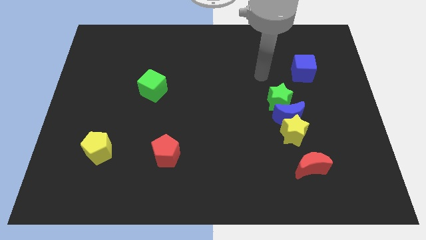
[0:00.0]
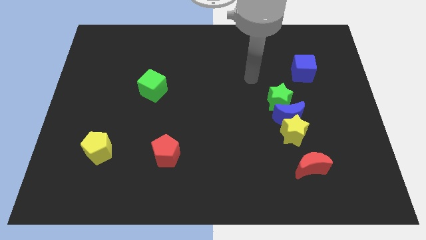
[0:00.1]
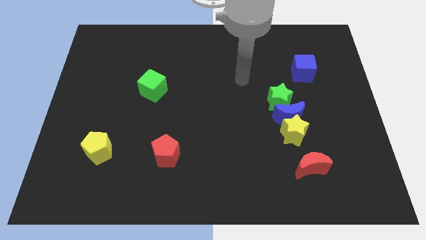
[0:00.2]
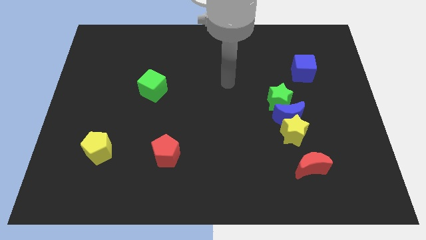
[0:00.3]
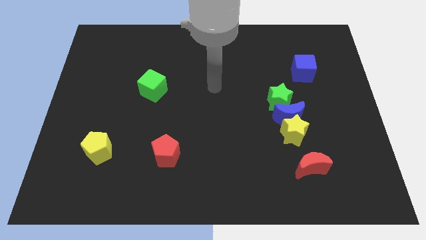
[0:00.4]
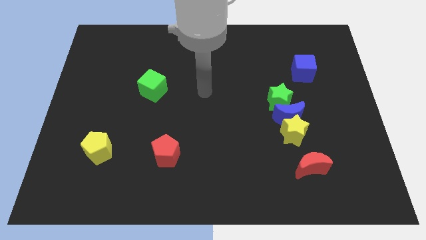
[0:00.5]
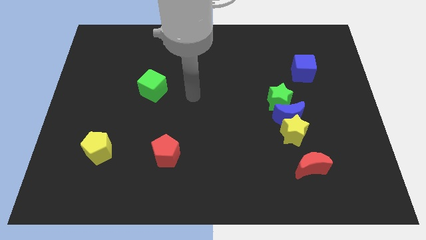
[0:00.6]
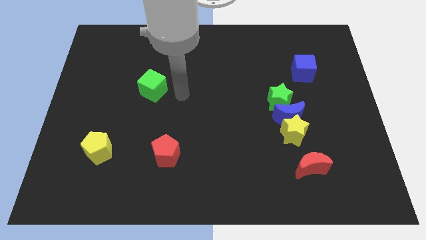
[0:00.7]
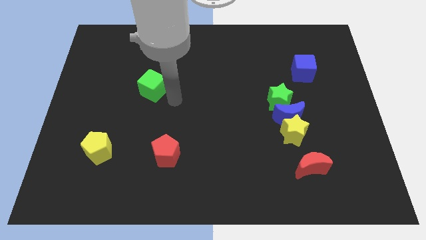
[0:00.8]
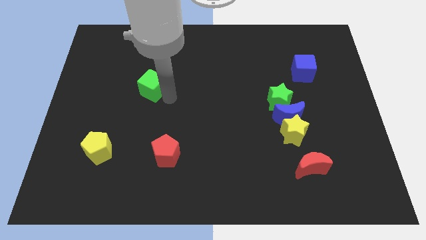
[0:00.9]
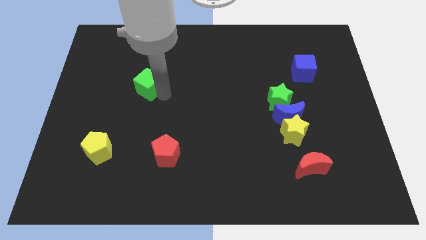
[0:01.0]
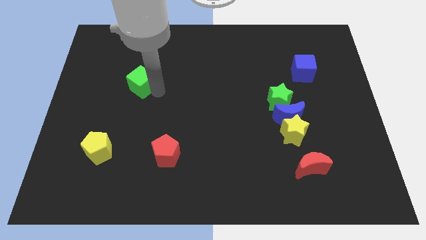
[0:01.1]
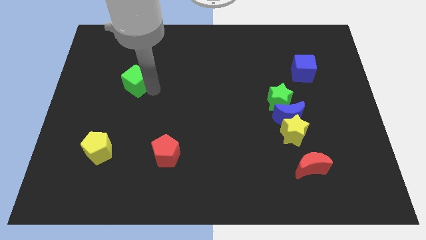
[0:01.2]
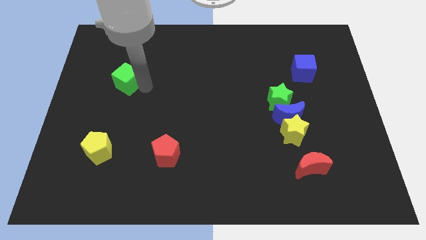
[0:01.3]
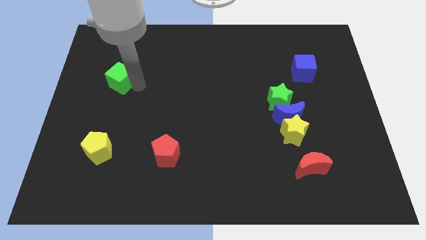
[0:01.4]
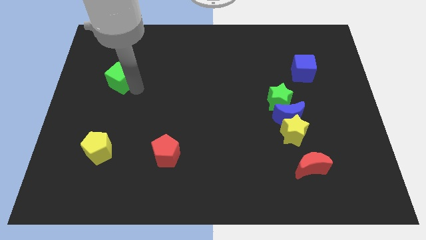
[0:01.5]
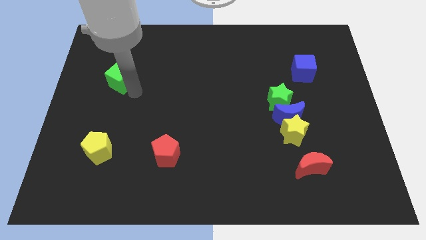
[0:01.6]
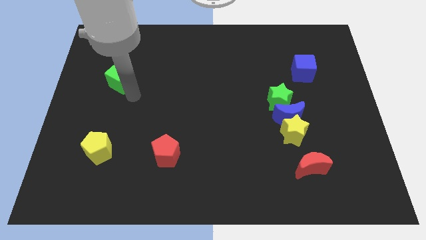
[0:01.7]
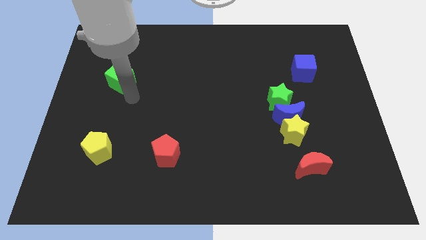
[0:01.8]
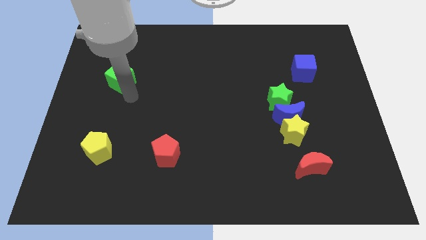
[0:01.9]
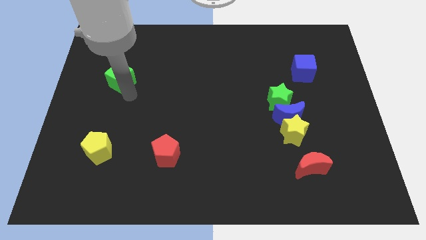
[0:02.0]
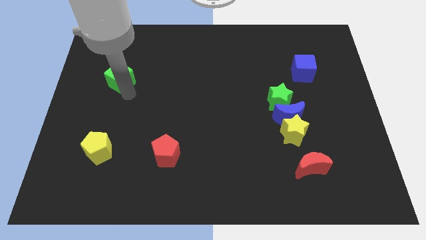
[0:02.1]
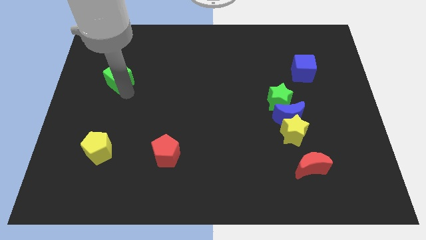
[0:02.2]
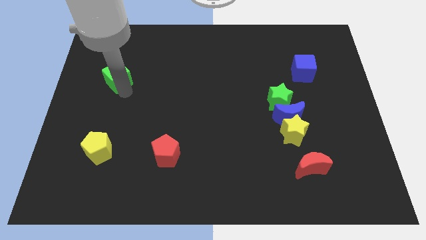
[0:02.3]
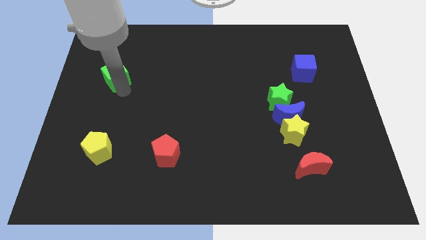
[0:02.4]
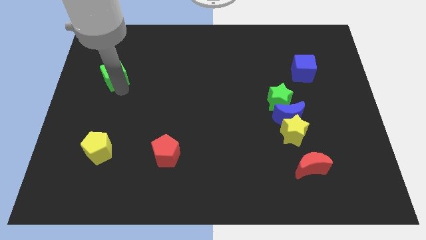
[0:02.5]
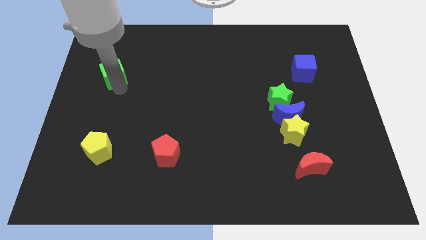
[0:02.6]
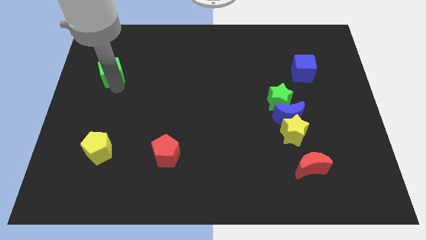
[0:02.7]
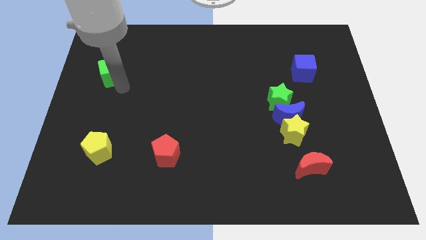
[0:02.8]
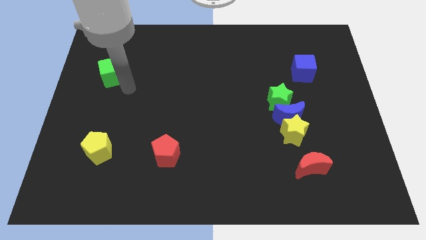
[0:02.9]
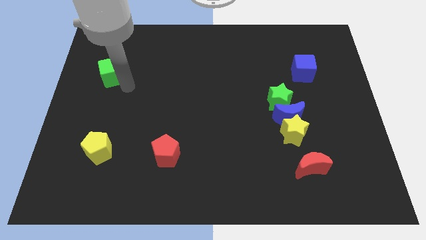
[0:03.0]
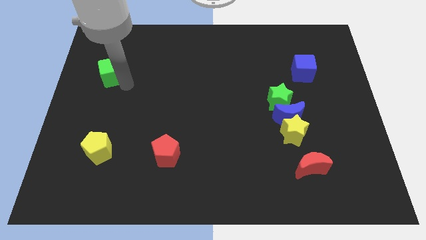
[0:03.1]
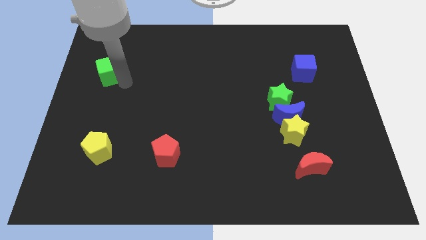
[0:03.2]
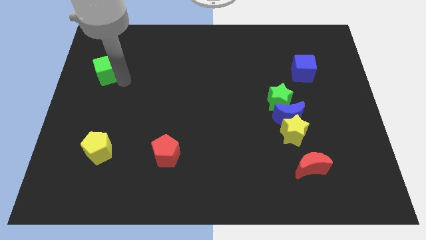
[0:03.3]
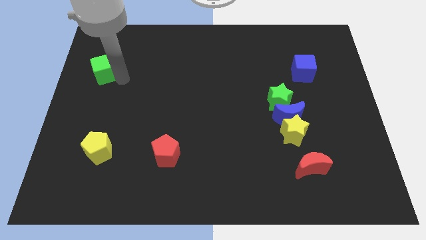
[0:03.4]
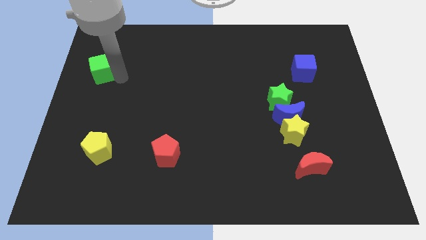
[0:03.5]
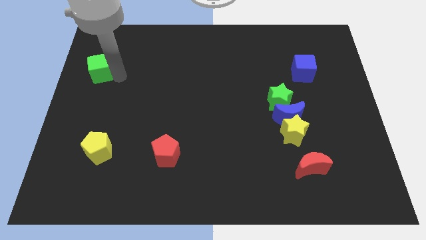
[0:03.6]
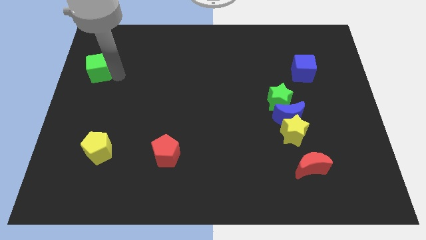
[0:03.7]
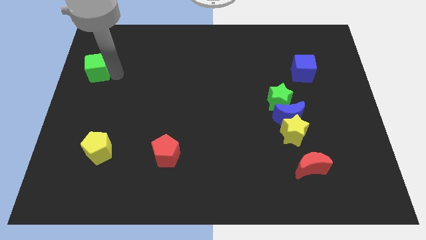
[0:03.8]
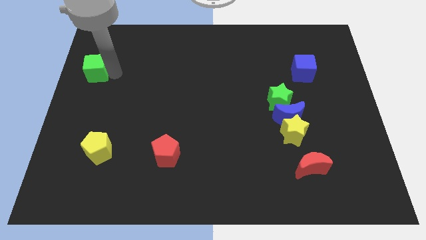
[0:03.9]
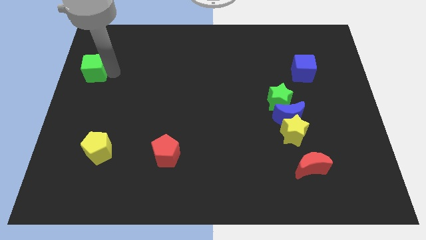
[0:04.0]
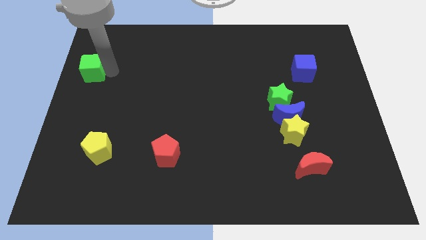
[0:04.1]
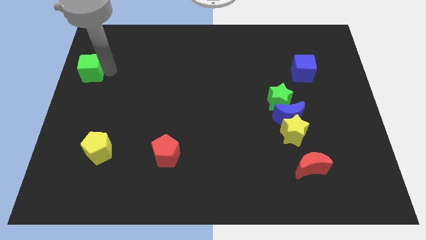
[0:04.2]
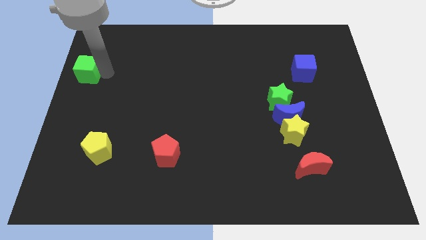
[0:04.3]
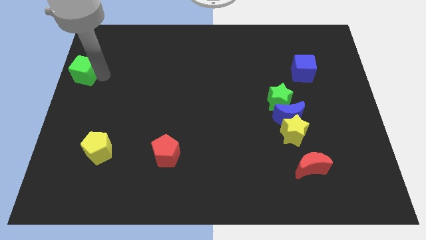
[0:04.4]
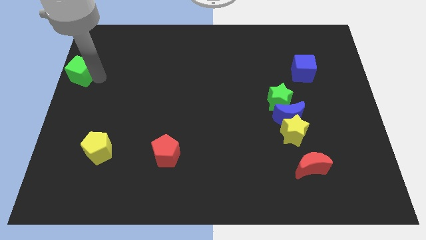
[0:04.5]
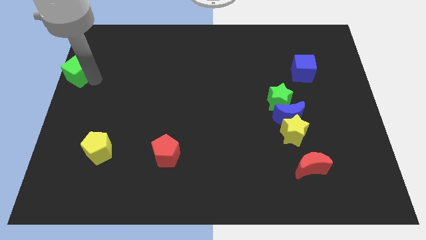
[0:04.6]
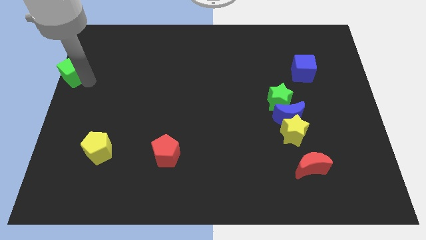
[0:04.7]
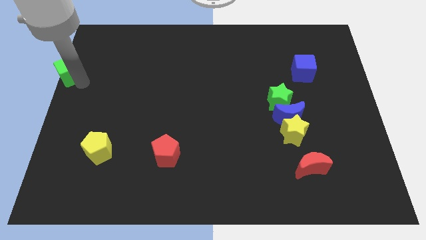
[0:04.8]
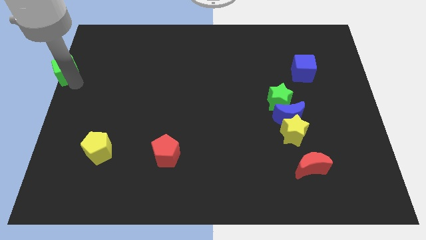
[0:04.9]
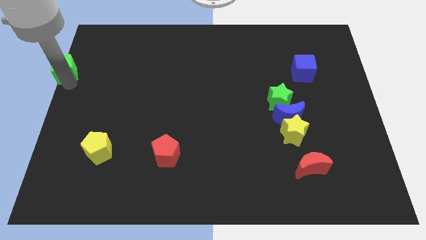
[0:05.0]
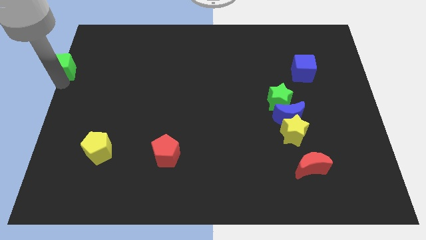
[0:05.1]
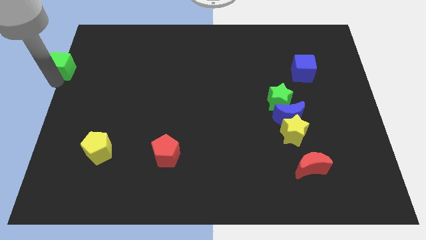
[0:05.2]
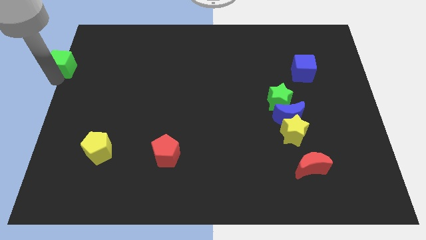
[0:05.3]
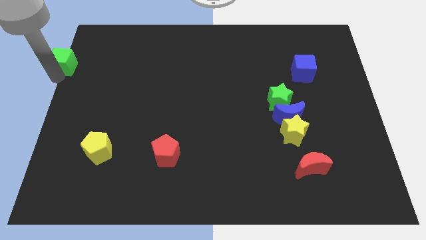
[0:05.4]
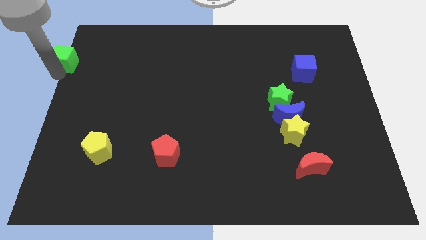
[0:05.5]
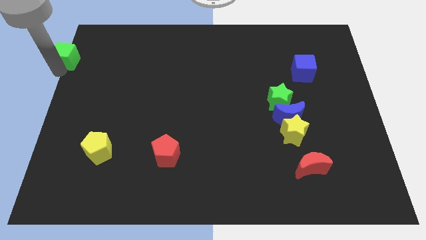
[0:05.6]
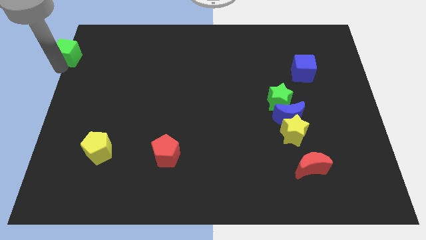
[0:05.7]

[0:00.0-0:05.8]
put the green cube to the upper left corner
